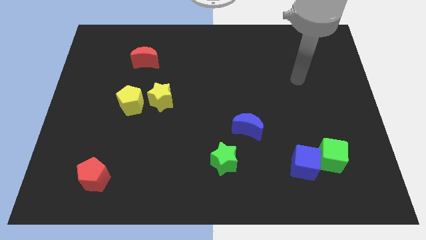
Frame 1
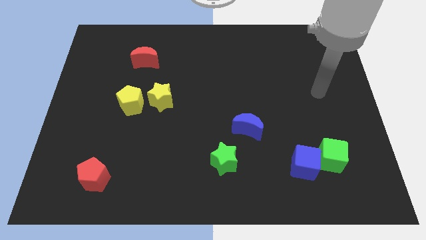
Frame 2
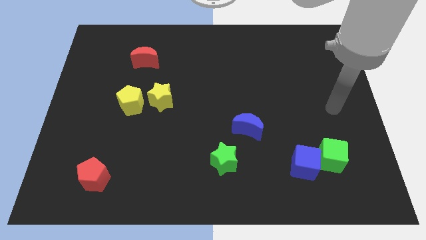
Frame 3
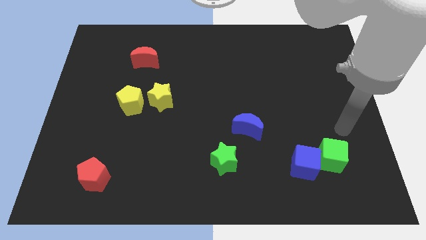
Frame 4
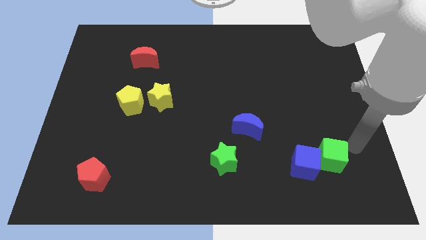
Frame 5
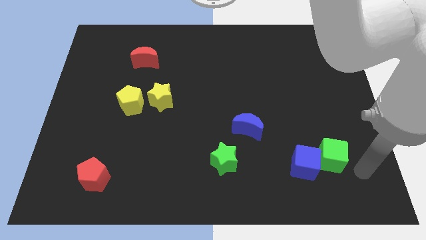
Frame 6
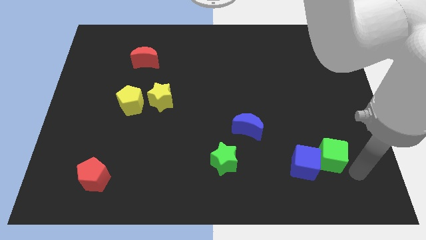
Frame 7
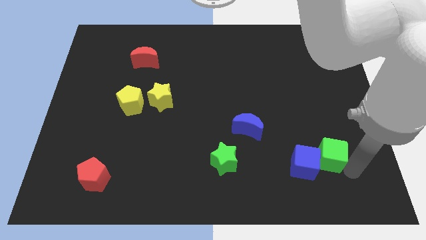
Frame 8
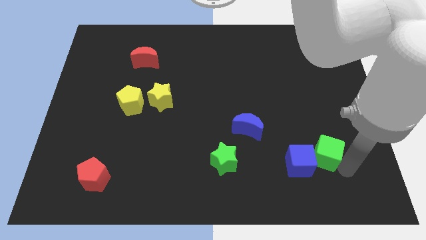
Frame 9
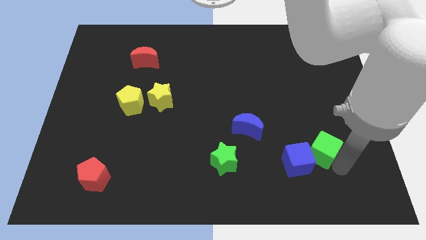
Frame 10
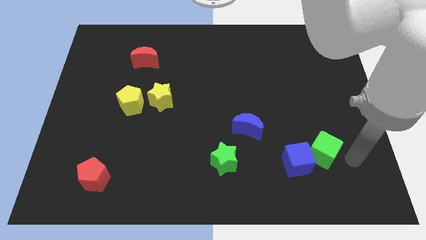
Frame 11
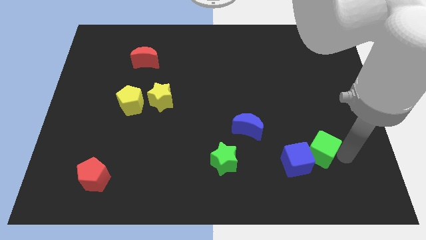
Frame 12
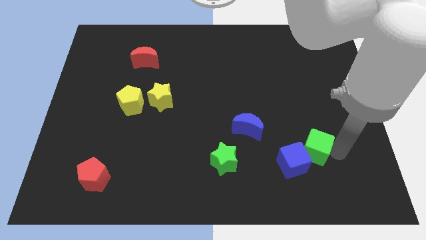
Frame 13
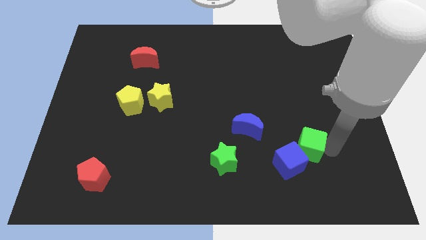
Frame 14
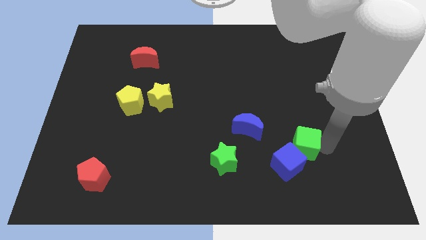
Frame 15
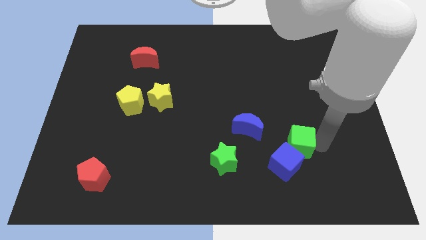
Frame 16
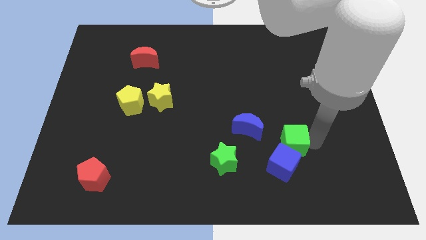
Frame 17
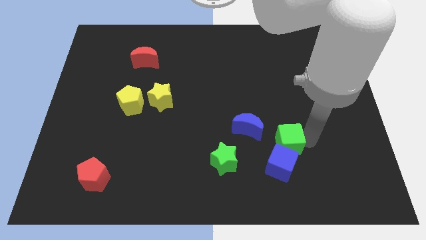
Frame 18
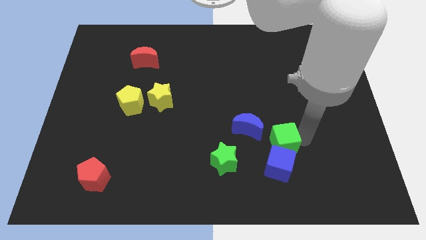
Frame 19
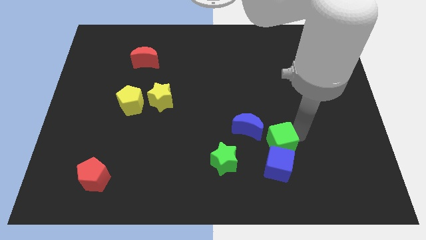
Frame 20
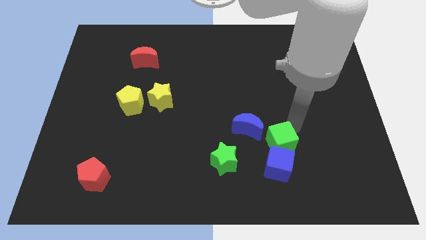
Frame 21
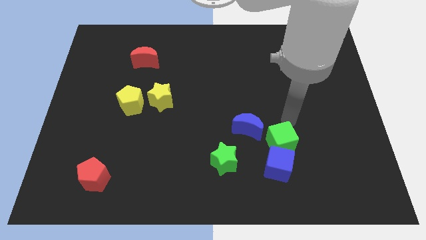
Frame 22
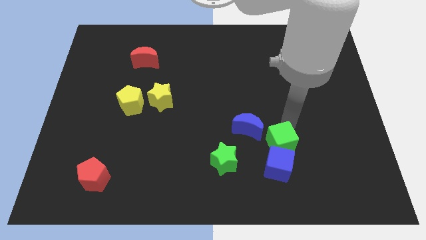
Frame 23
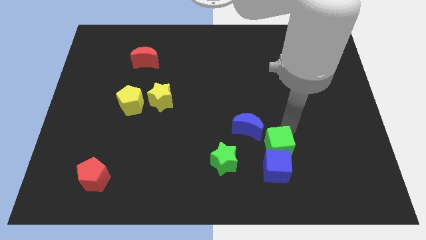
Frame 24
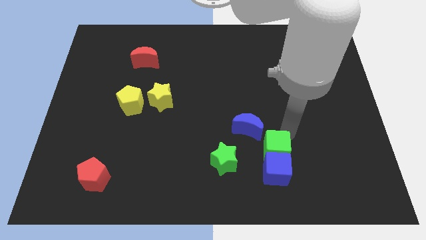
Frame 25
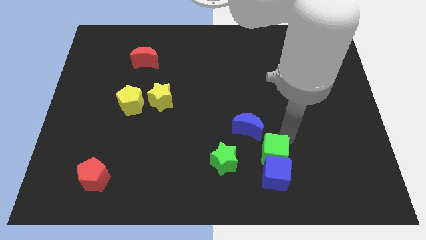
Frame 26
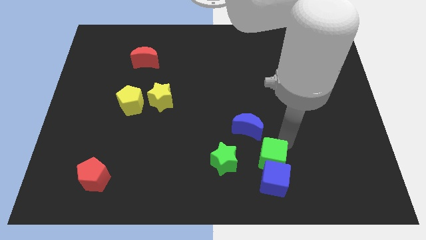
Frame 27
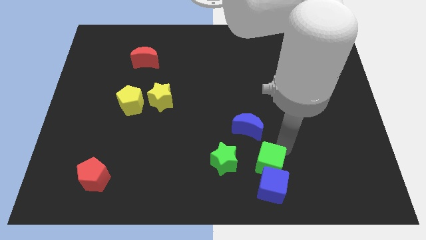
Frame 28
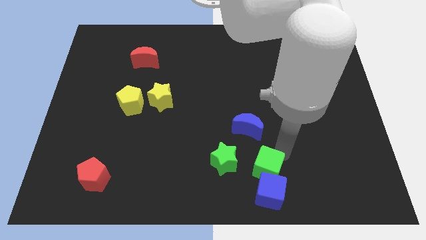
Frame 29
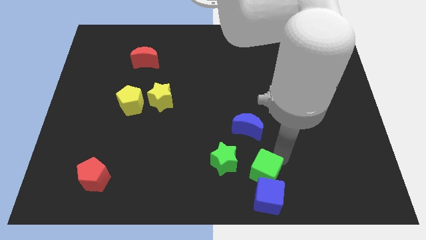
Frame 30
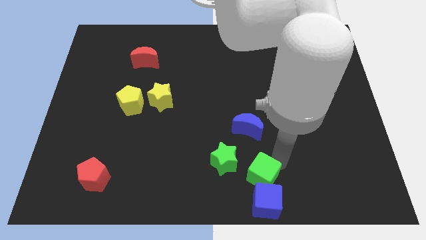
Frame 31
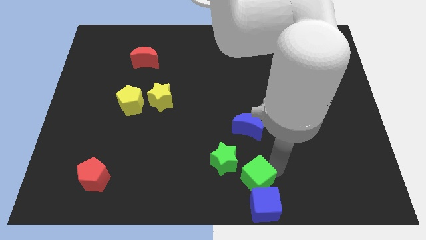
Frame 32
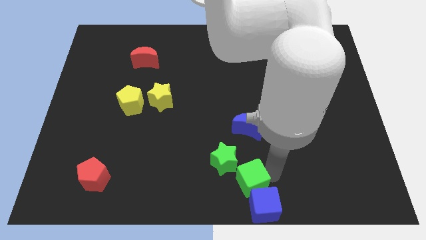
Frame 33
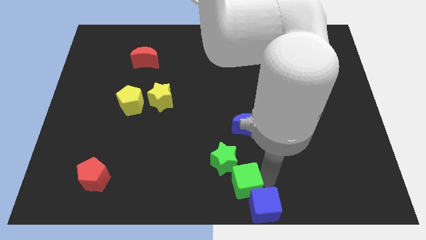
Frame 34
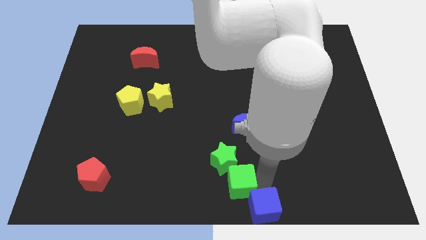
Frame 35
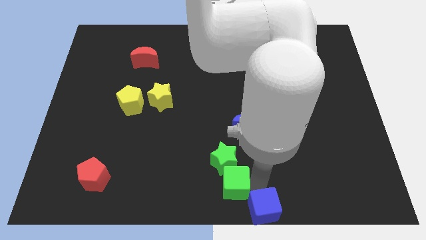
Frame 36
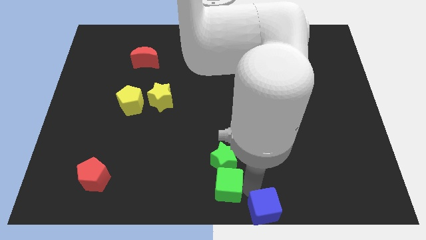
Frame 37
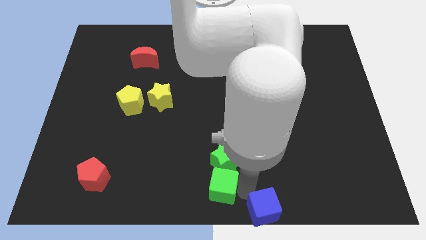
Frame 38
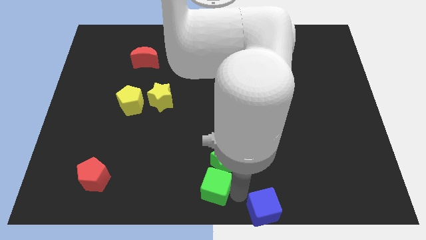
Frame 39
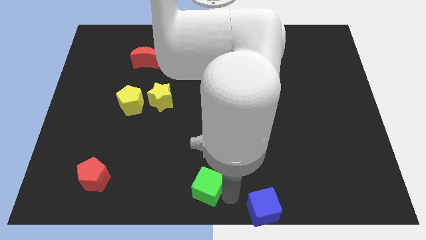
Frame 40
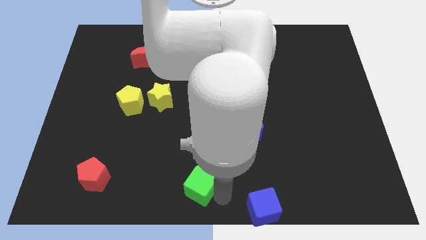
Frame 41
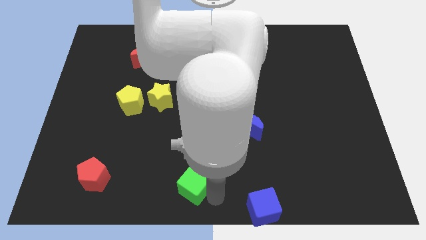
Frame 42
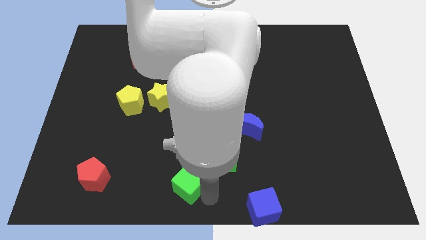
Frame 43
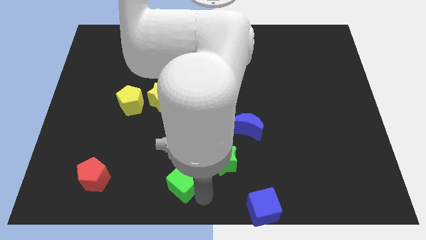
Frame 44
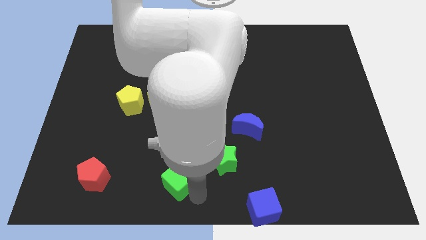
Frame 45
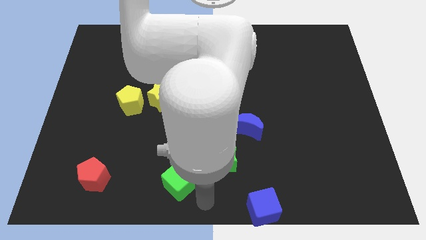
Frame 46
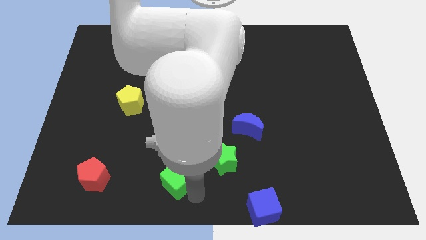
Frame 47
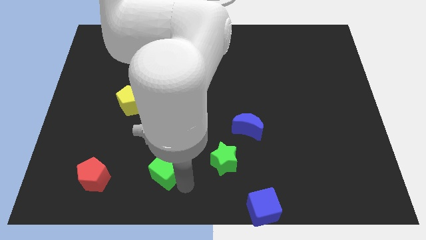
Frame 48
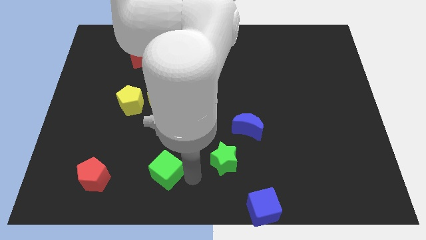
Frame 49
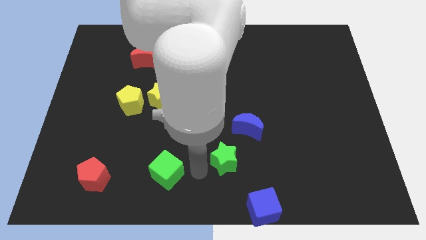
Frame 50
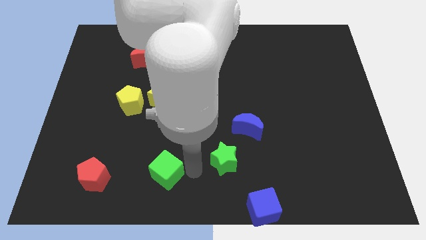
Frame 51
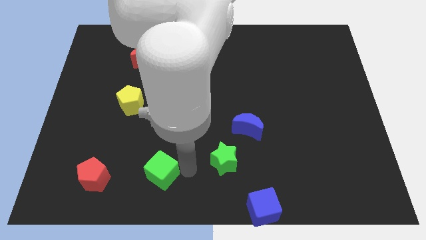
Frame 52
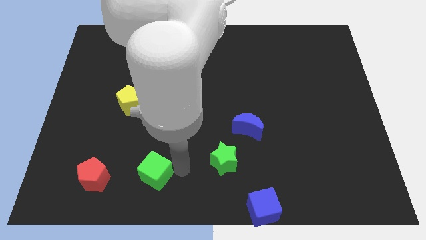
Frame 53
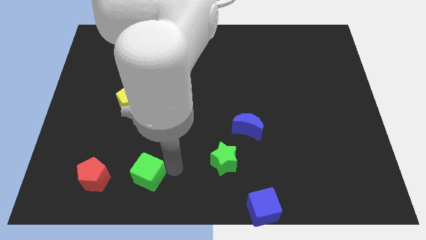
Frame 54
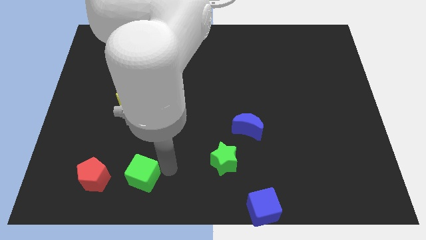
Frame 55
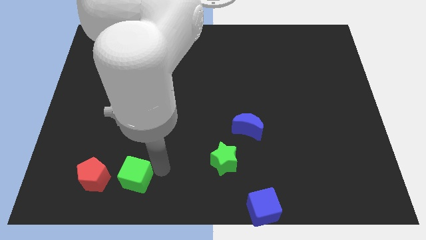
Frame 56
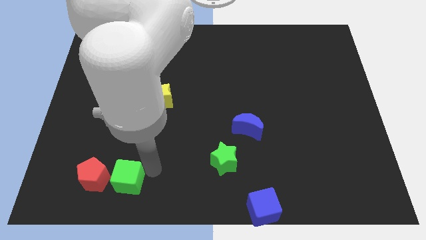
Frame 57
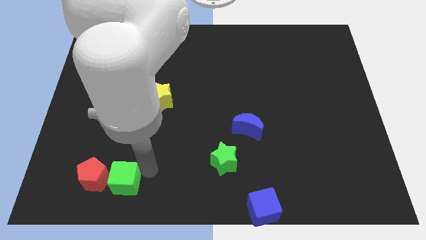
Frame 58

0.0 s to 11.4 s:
slide the green cube to the red pentagon

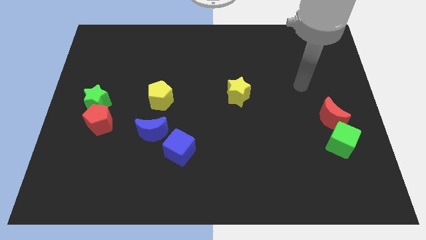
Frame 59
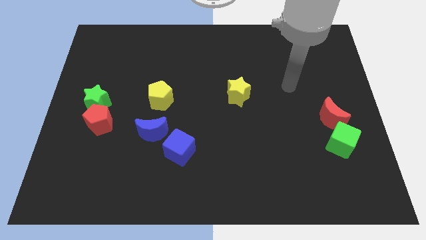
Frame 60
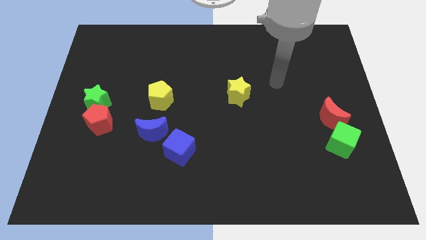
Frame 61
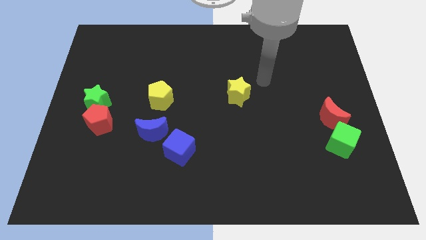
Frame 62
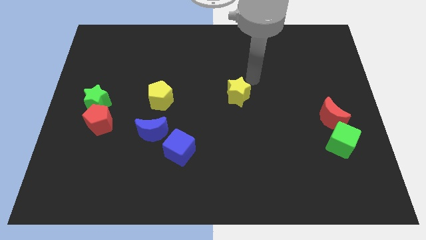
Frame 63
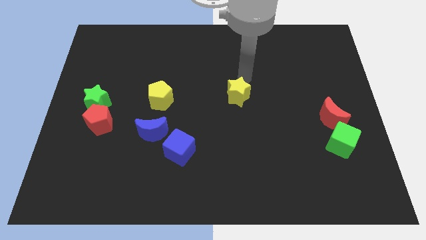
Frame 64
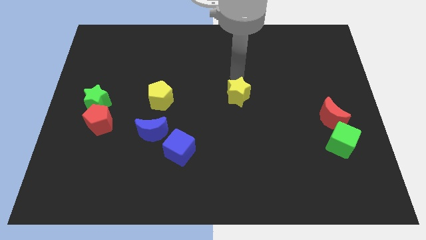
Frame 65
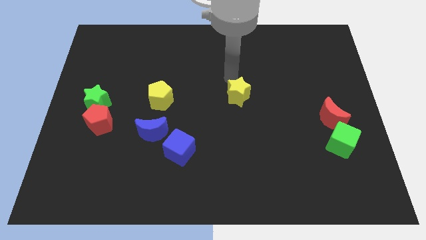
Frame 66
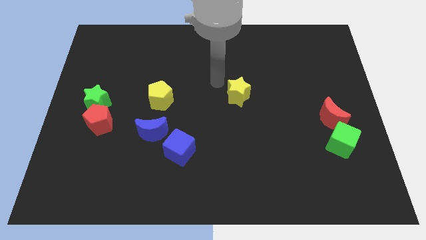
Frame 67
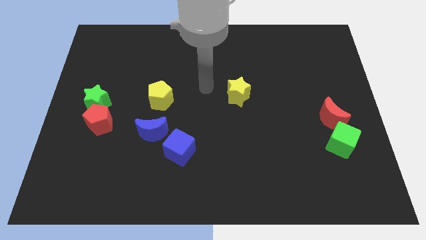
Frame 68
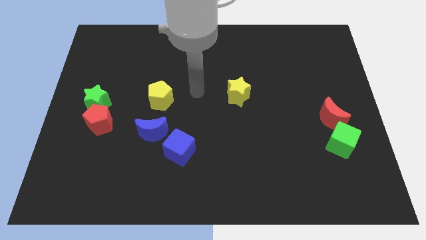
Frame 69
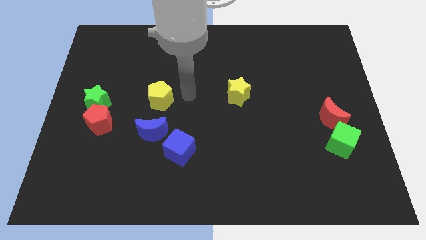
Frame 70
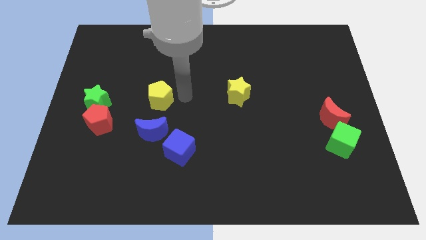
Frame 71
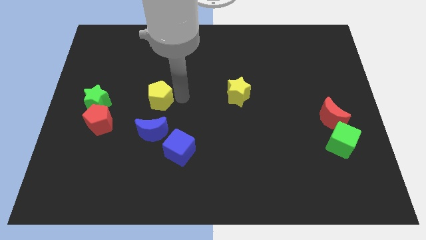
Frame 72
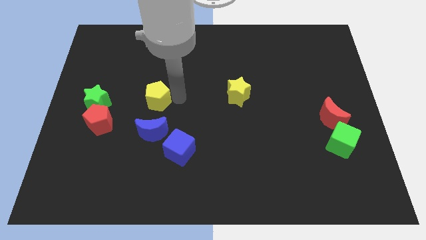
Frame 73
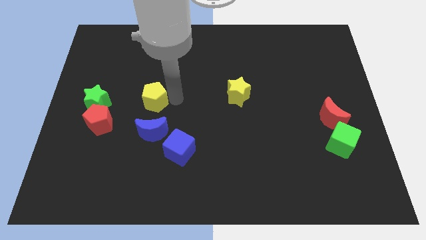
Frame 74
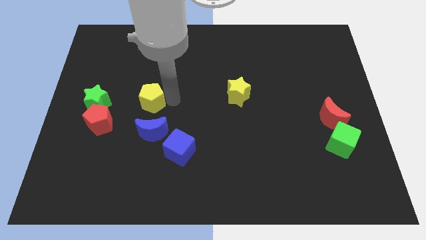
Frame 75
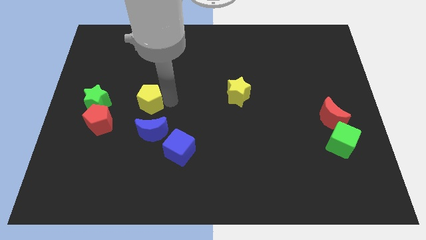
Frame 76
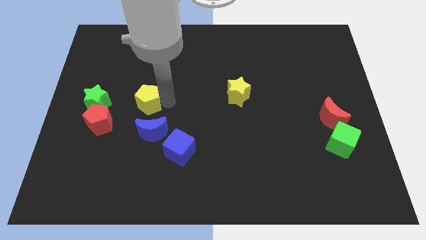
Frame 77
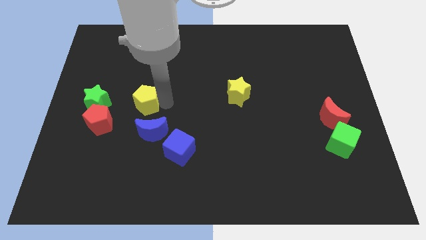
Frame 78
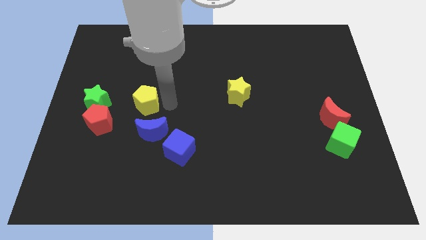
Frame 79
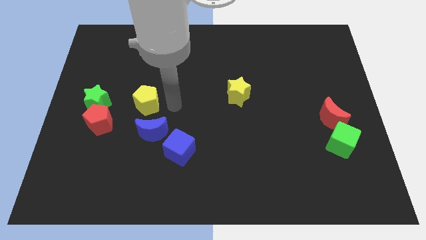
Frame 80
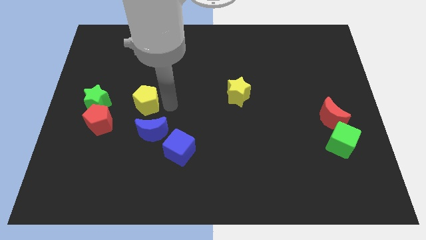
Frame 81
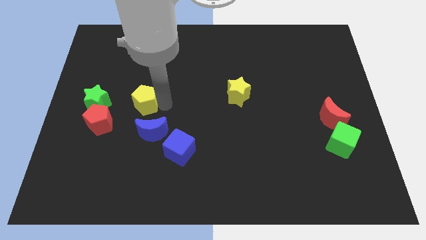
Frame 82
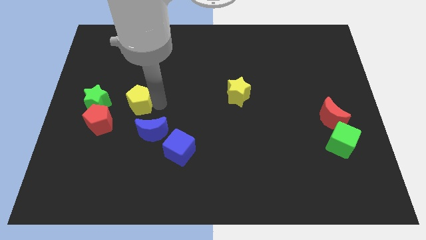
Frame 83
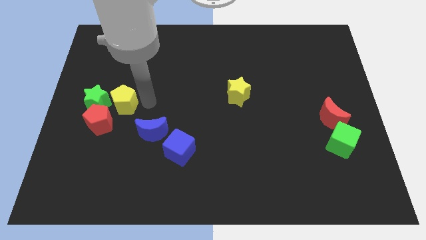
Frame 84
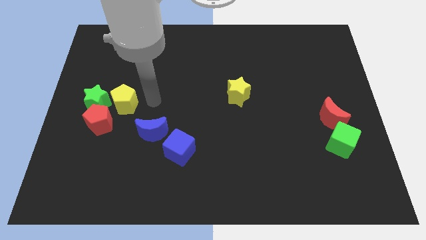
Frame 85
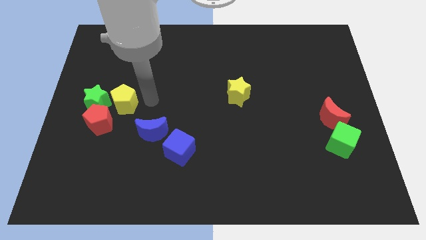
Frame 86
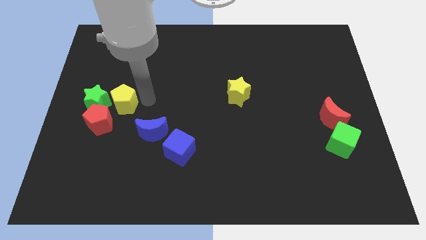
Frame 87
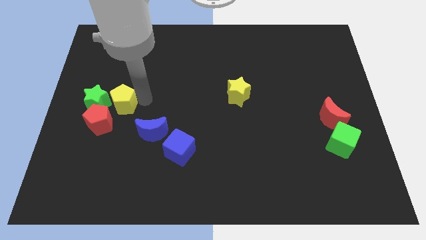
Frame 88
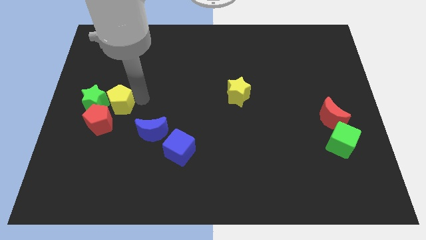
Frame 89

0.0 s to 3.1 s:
push the yellow pentagon close to the green star
